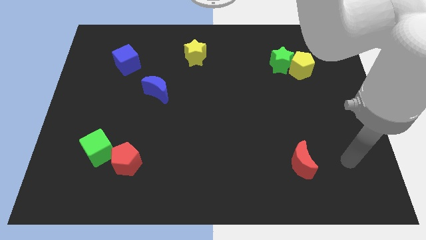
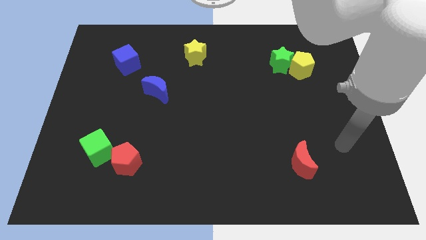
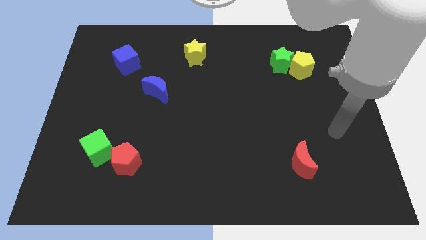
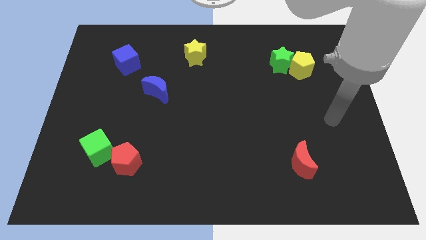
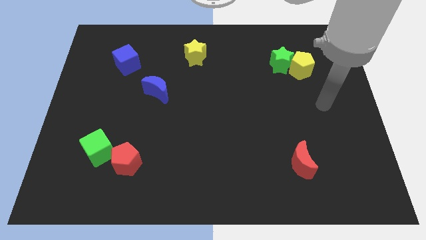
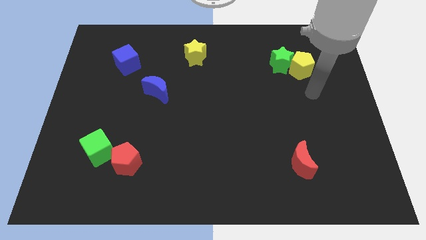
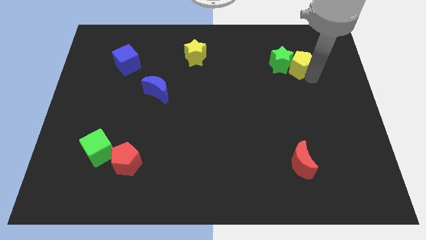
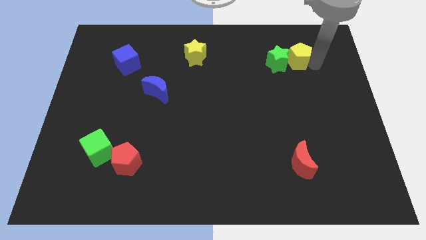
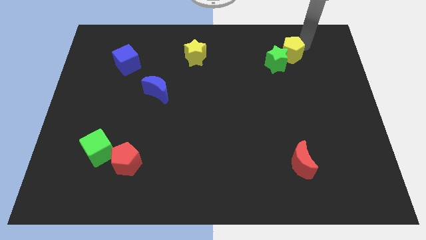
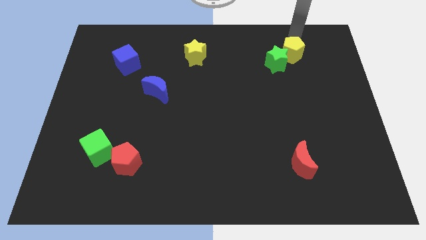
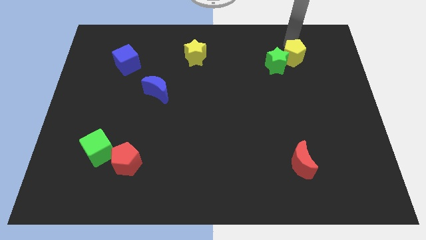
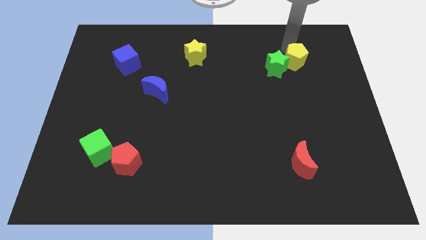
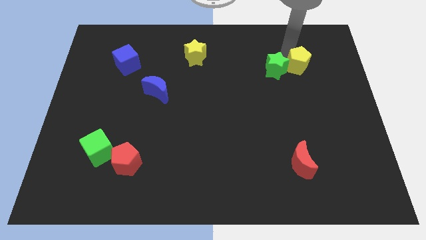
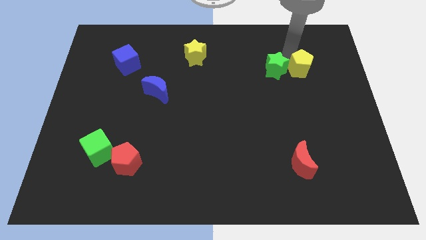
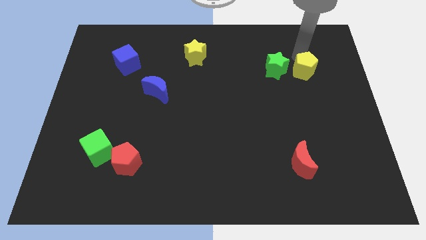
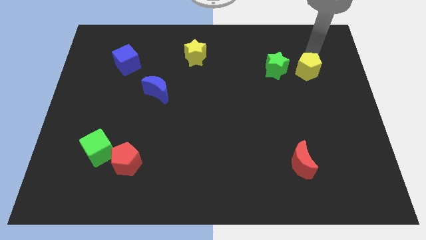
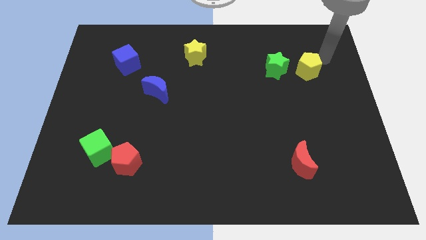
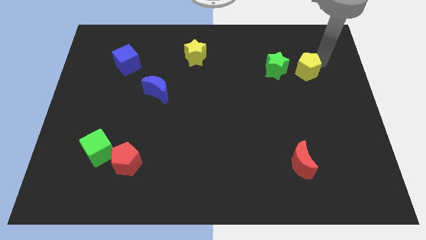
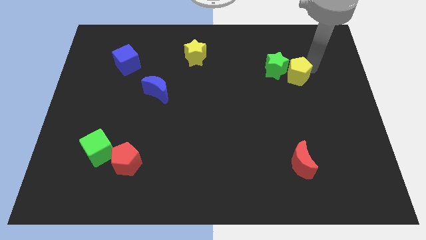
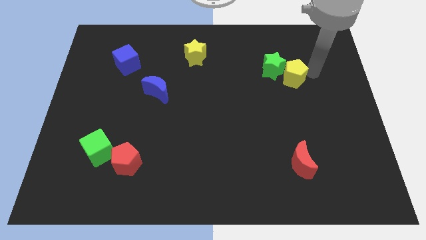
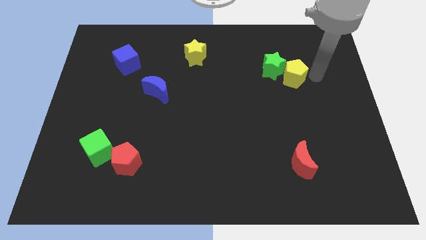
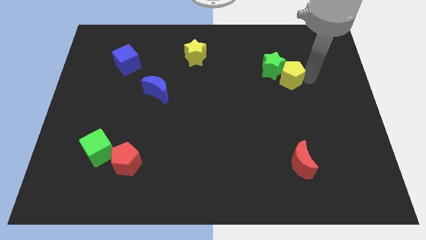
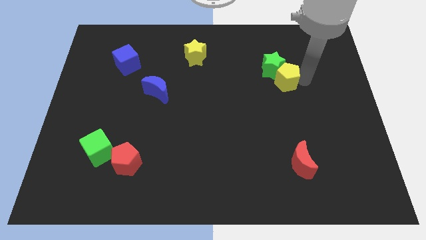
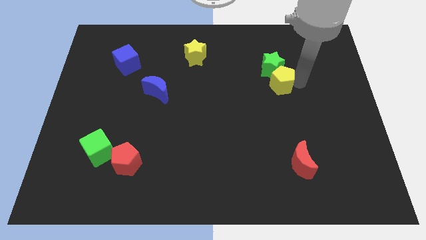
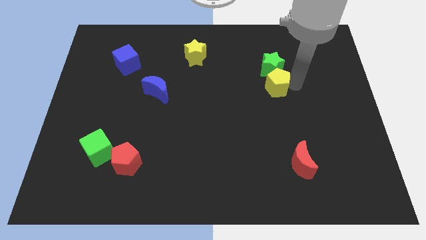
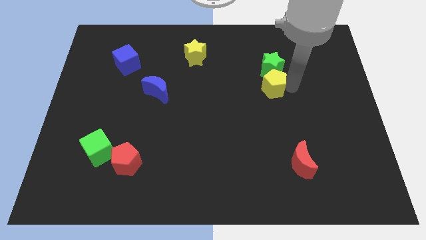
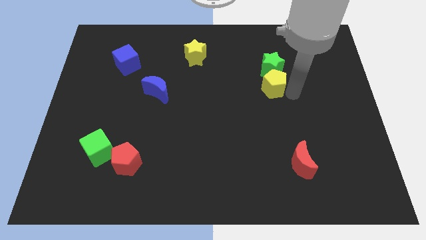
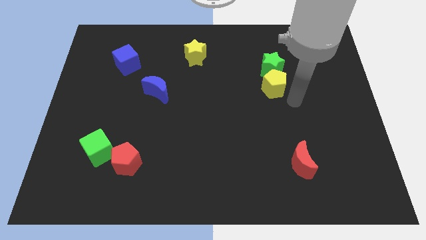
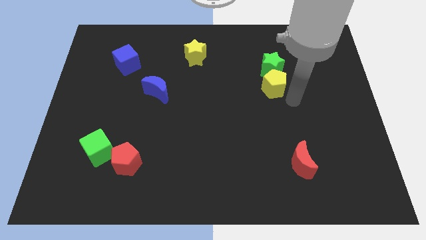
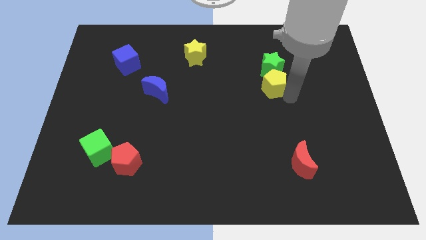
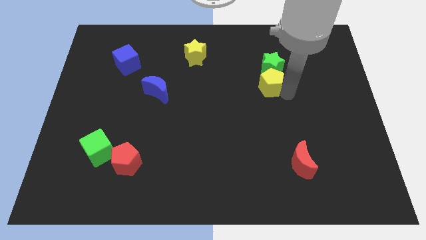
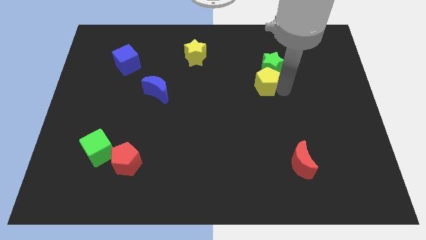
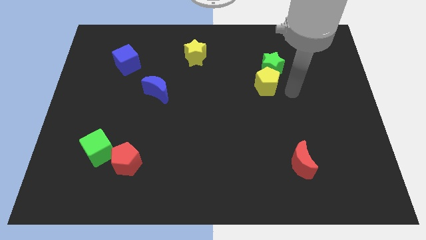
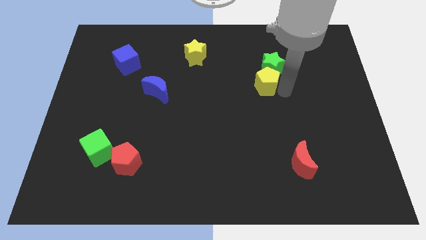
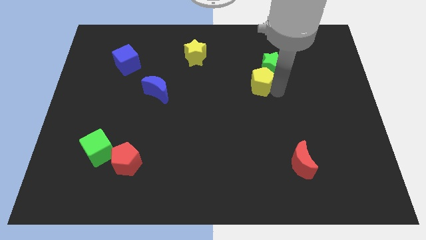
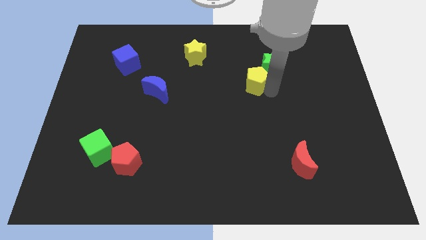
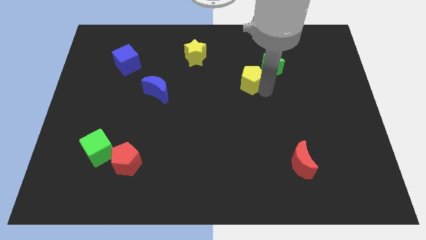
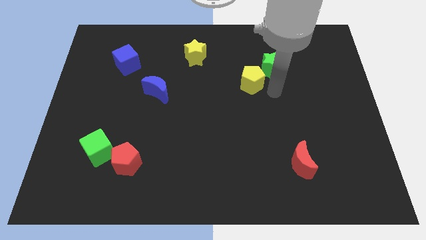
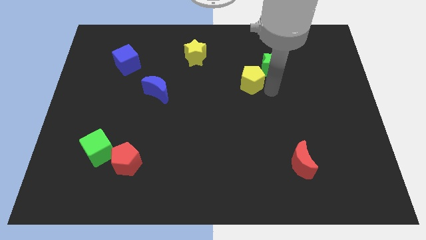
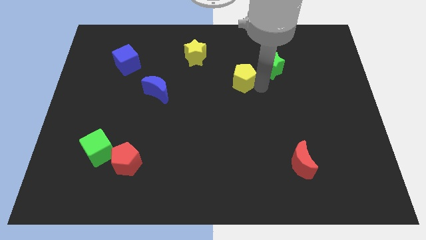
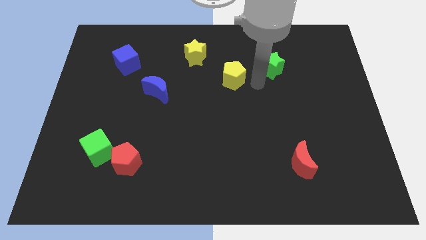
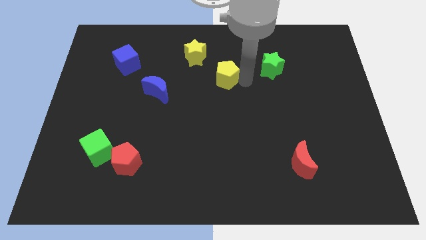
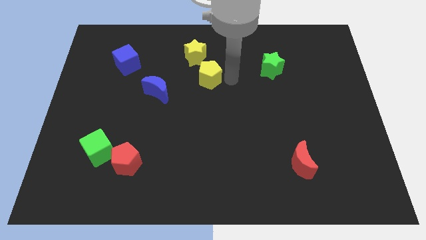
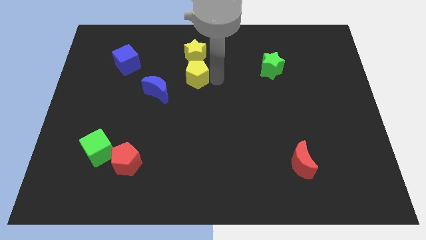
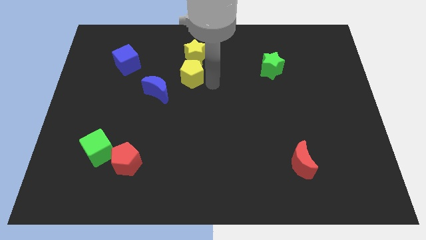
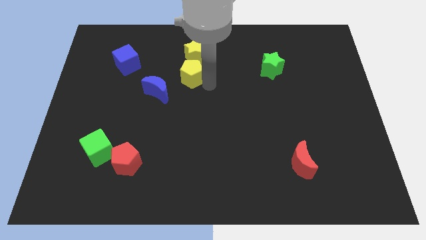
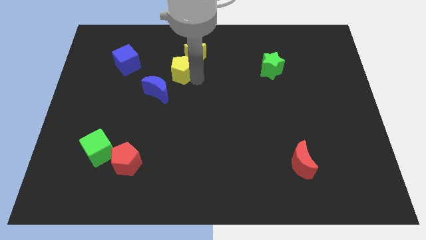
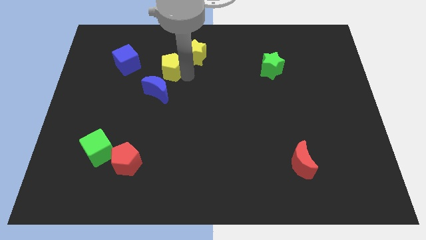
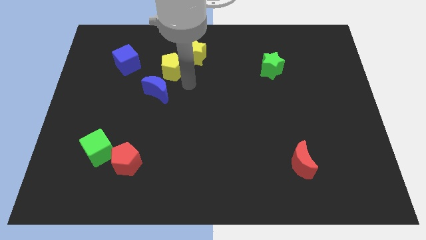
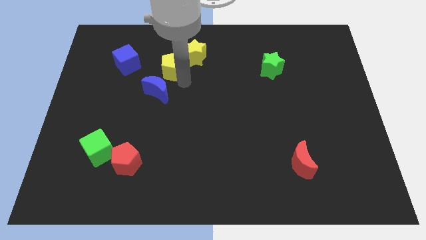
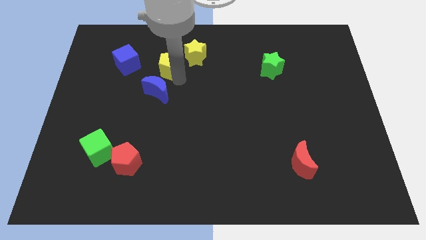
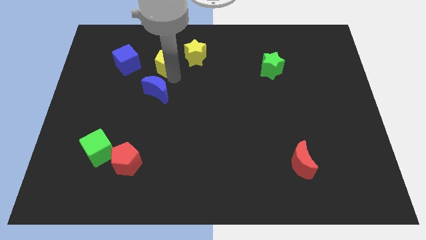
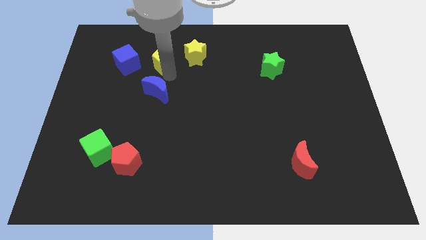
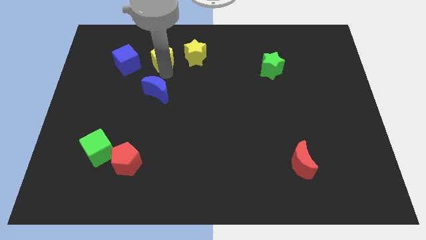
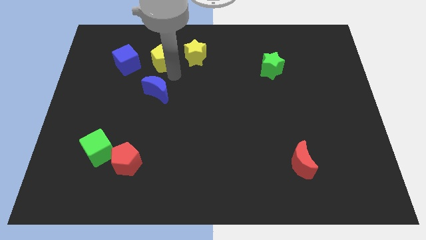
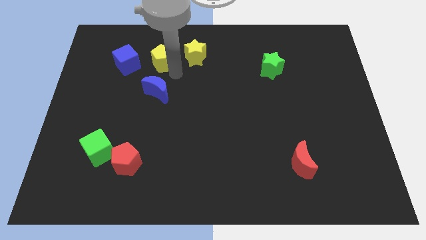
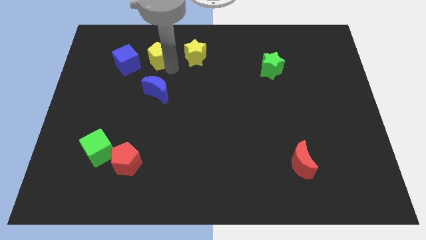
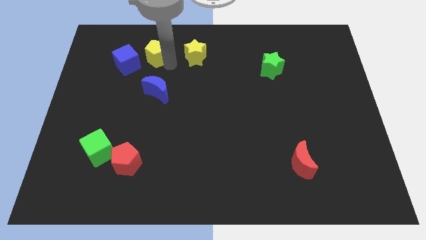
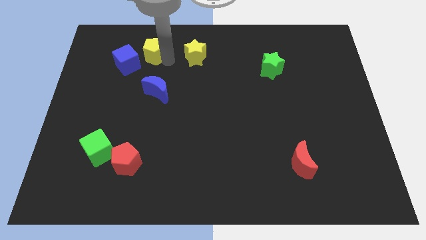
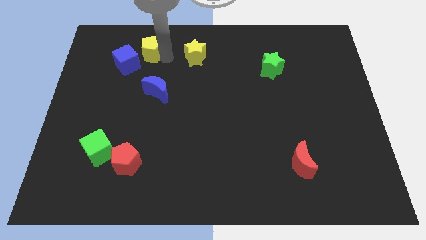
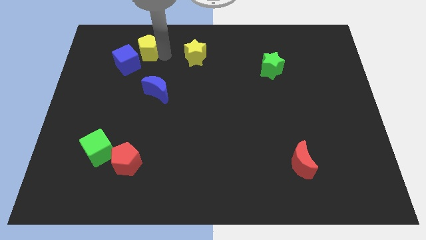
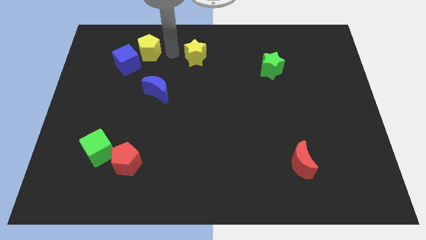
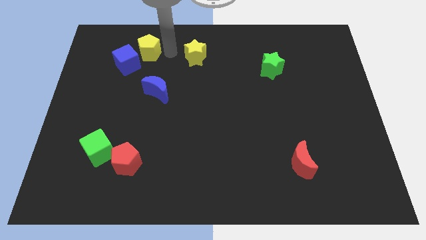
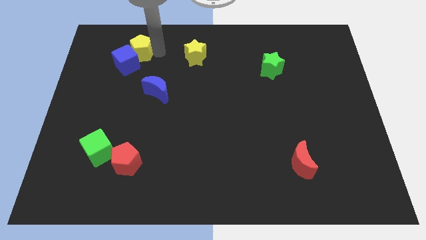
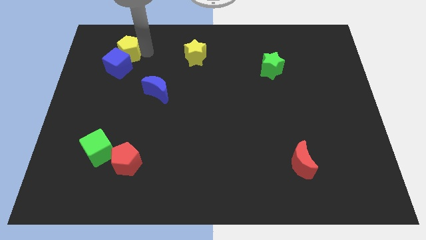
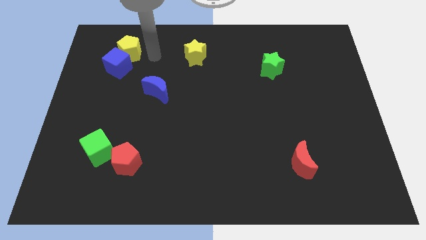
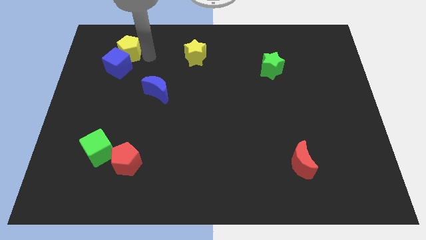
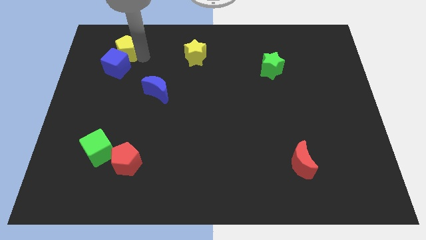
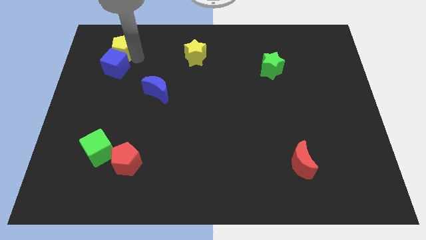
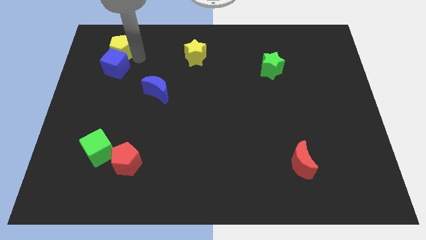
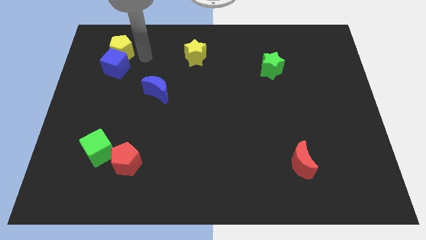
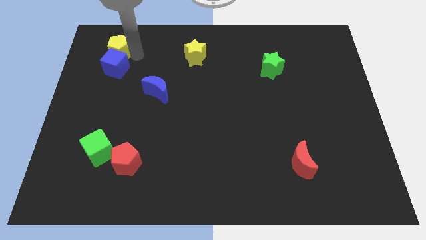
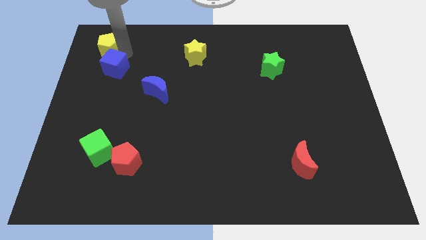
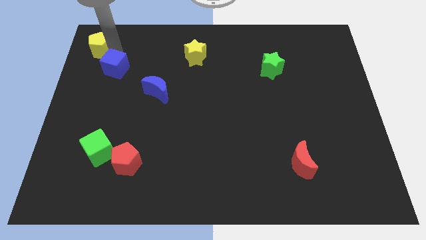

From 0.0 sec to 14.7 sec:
move the yellow pentagon to the top left
